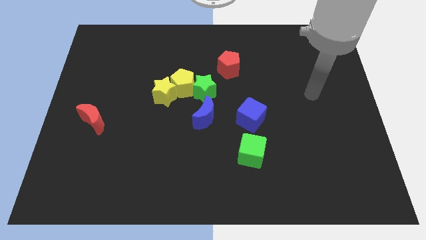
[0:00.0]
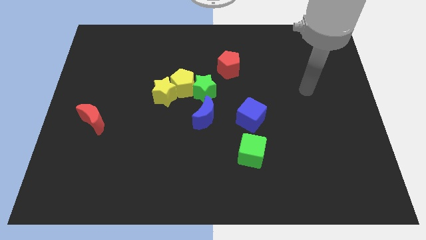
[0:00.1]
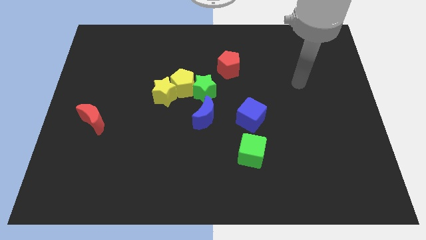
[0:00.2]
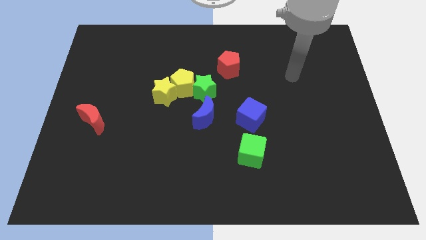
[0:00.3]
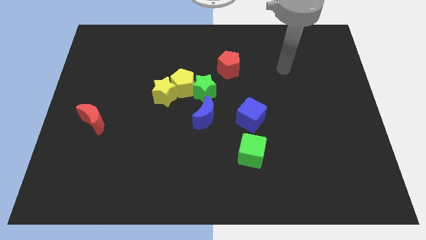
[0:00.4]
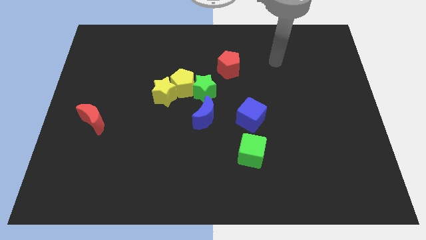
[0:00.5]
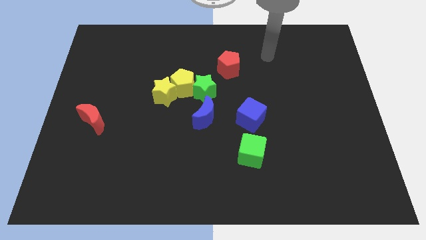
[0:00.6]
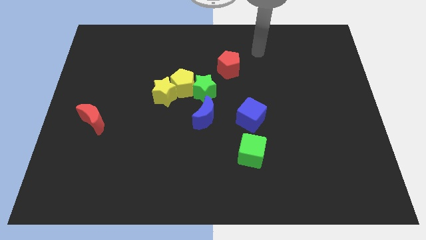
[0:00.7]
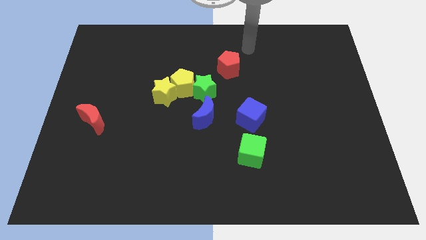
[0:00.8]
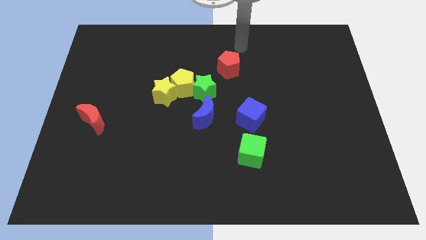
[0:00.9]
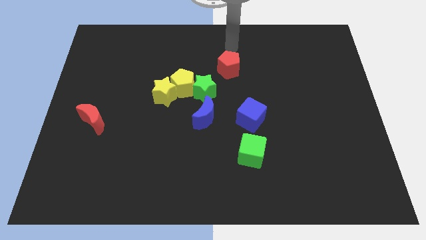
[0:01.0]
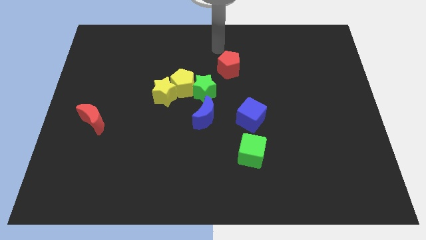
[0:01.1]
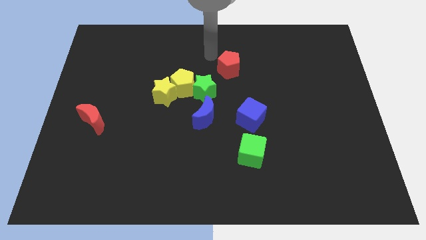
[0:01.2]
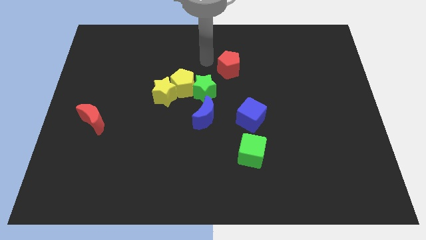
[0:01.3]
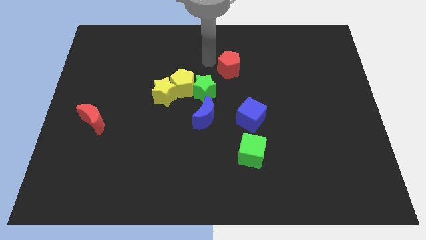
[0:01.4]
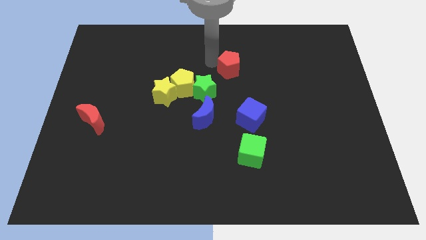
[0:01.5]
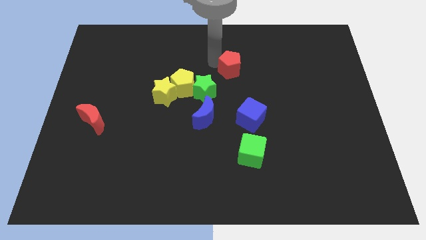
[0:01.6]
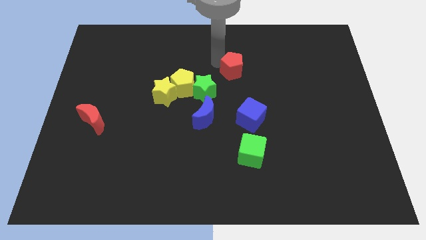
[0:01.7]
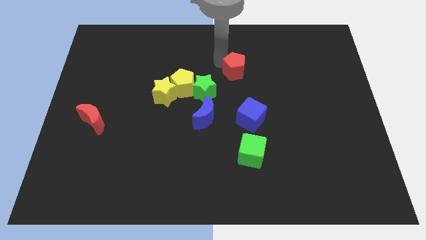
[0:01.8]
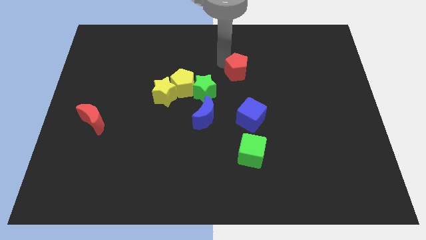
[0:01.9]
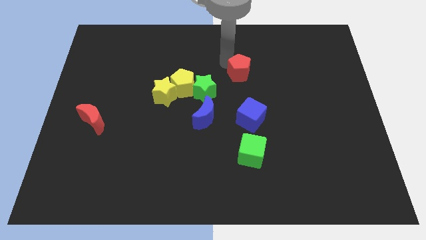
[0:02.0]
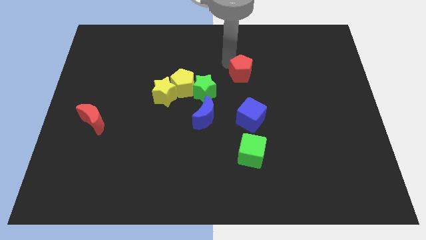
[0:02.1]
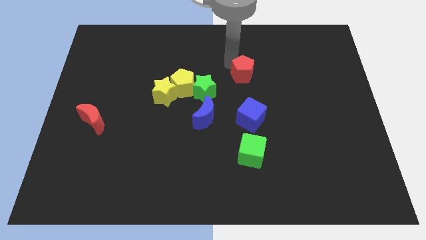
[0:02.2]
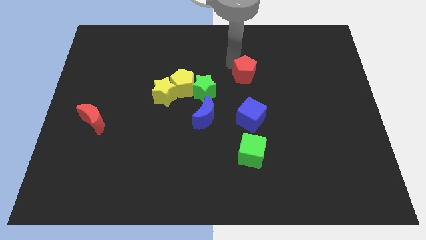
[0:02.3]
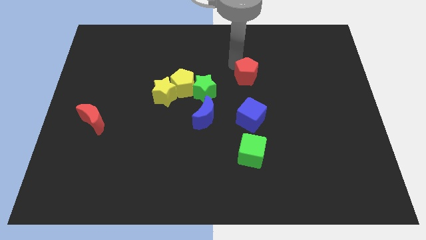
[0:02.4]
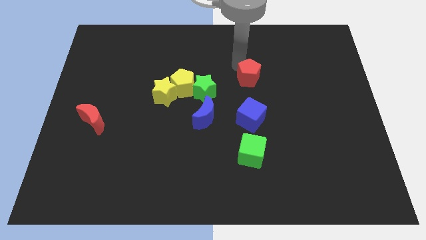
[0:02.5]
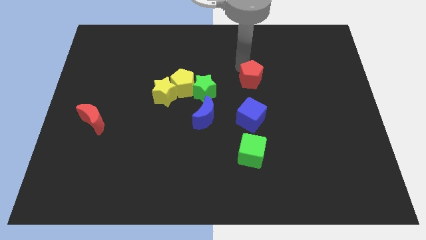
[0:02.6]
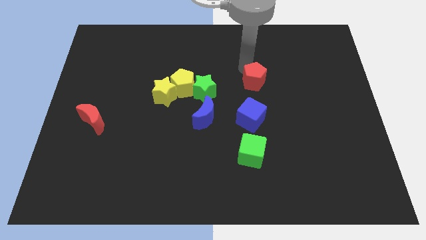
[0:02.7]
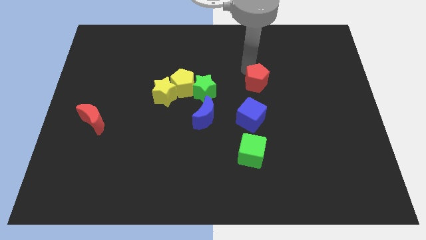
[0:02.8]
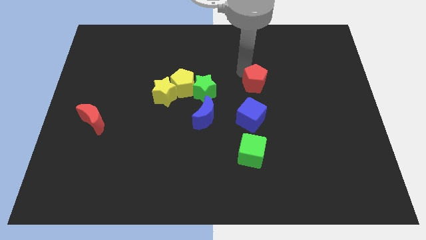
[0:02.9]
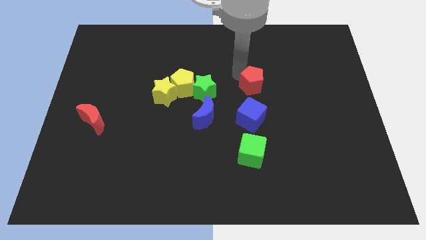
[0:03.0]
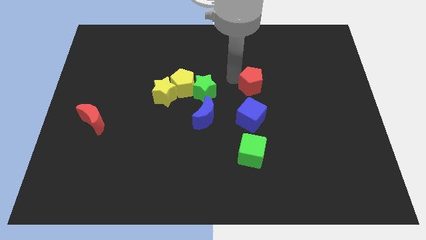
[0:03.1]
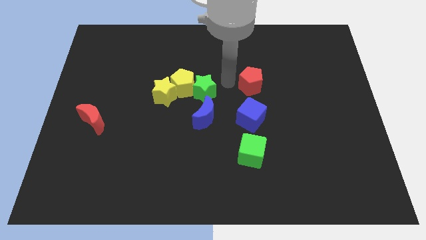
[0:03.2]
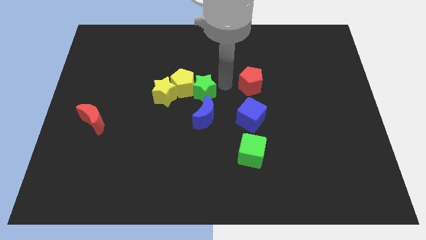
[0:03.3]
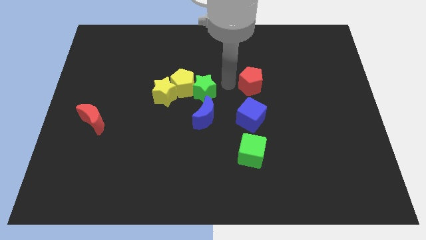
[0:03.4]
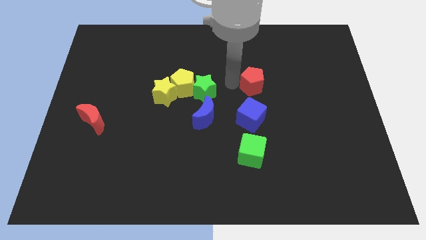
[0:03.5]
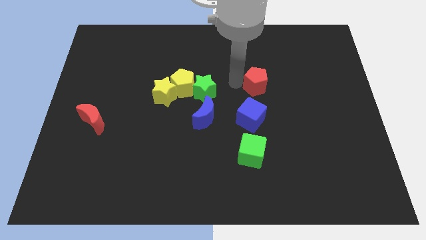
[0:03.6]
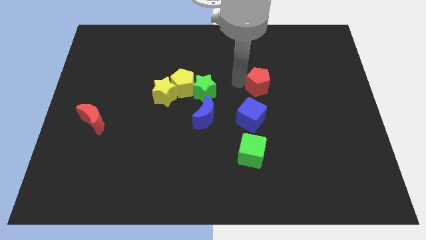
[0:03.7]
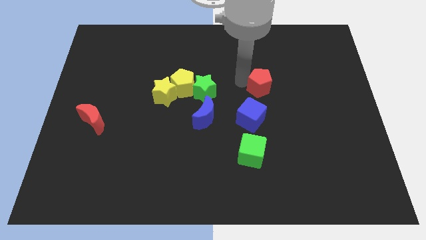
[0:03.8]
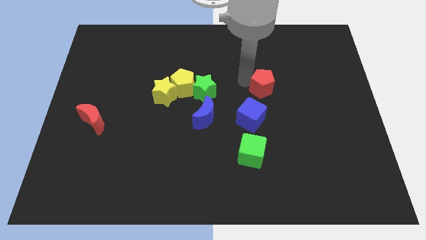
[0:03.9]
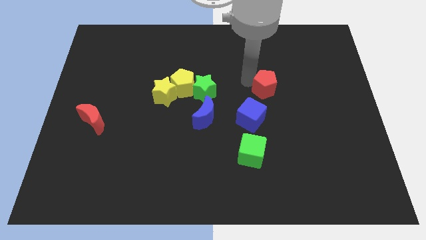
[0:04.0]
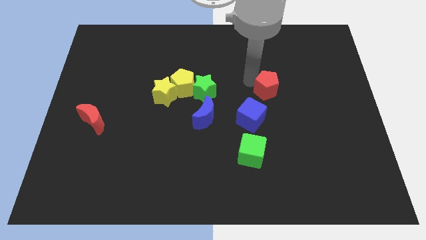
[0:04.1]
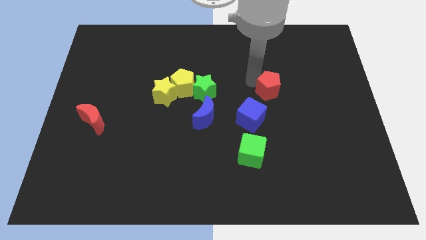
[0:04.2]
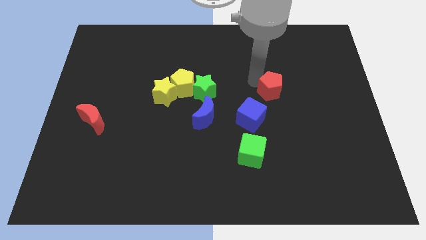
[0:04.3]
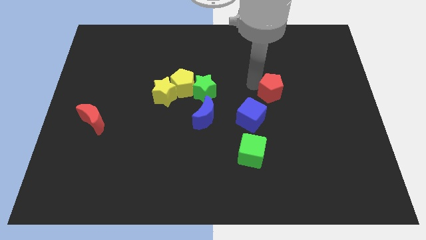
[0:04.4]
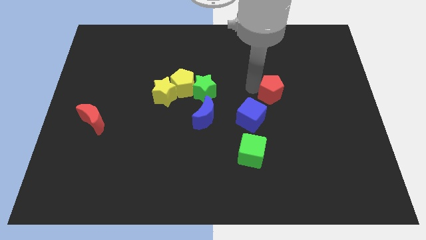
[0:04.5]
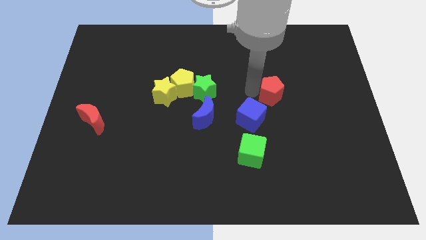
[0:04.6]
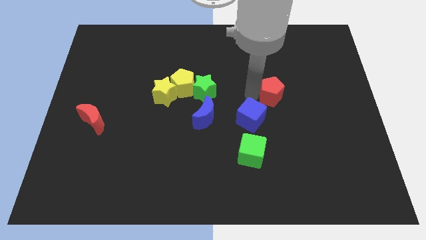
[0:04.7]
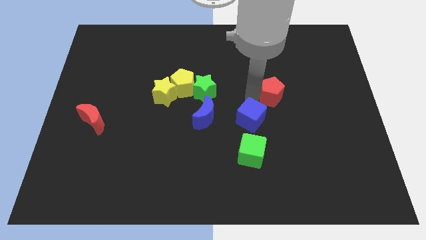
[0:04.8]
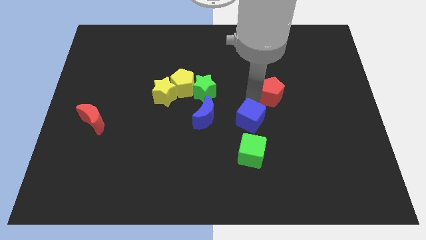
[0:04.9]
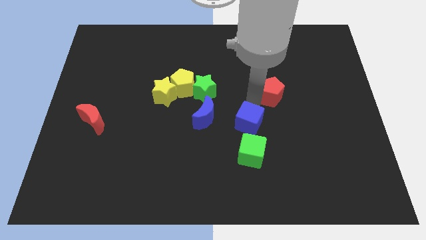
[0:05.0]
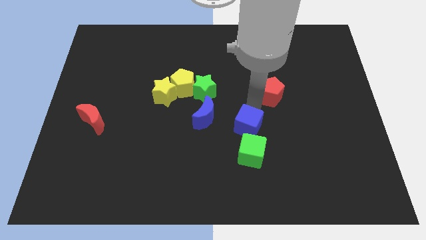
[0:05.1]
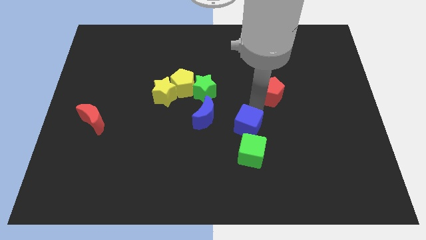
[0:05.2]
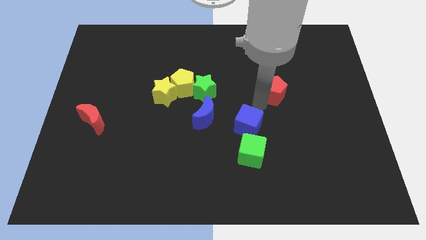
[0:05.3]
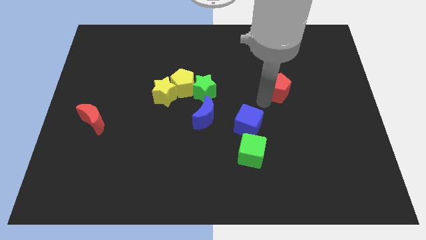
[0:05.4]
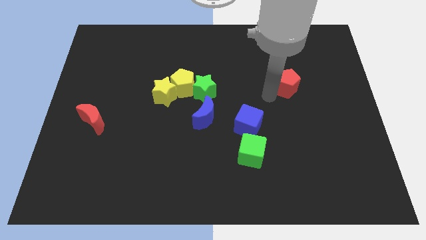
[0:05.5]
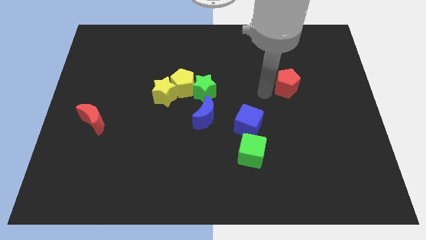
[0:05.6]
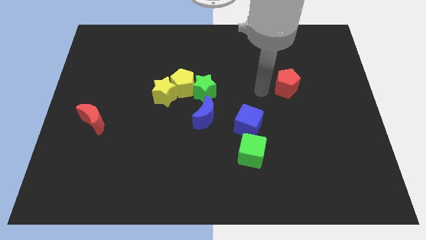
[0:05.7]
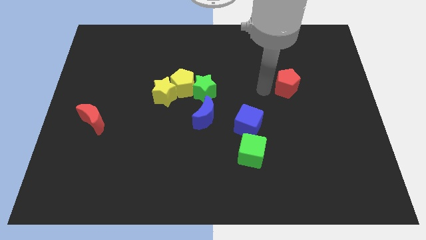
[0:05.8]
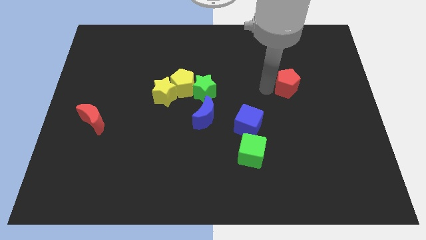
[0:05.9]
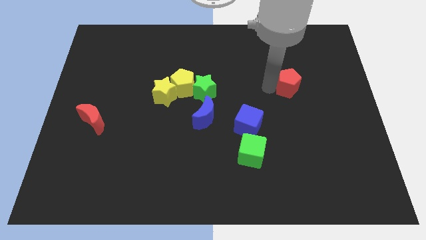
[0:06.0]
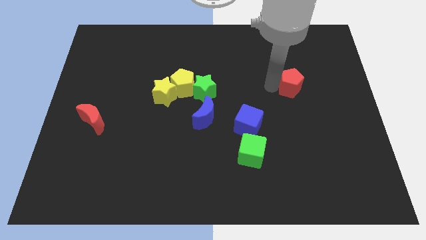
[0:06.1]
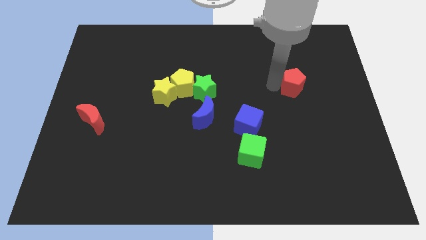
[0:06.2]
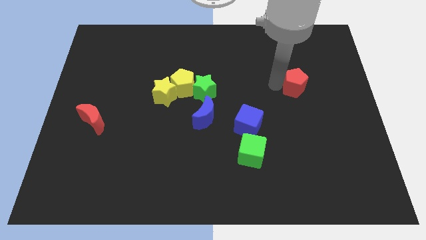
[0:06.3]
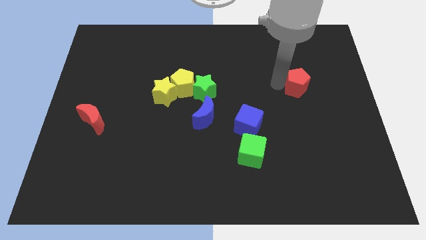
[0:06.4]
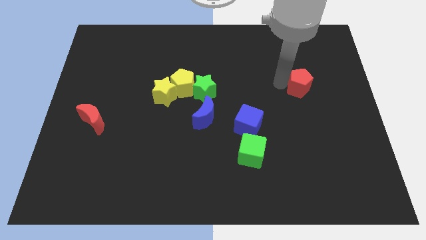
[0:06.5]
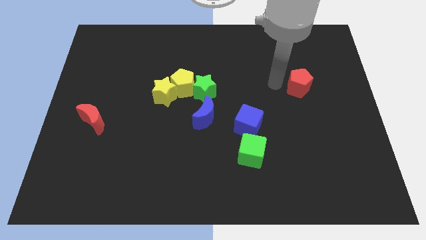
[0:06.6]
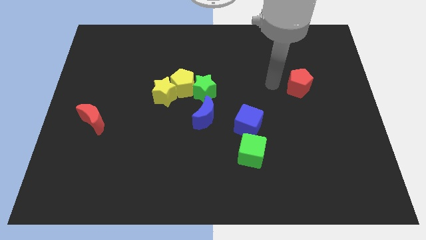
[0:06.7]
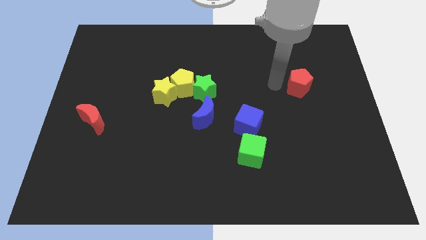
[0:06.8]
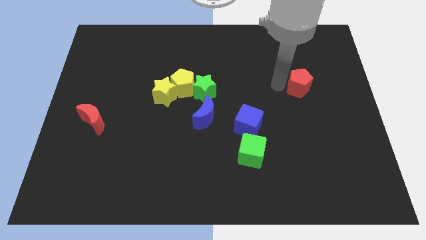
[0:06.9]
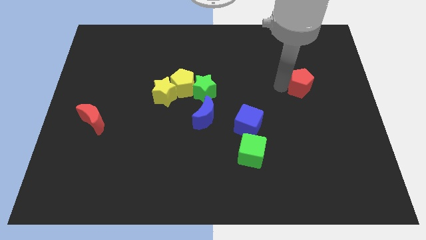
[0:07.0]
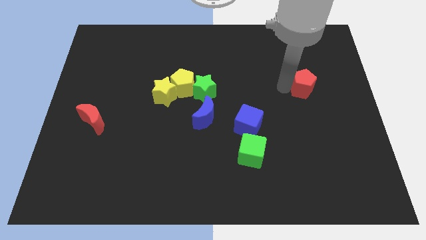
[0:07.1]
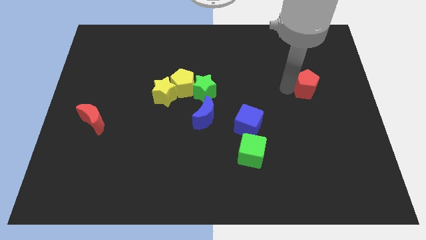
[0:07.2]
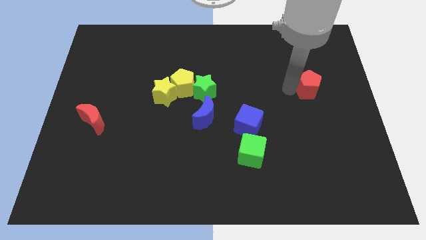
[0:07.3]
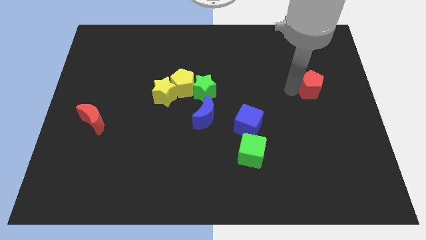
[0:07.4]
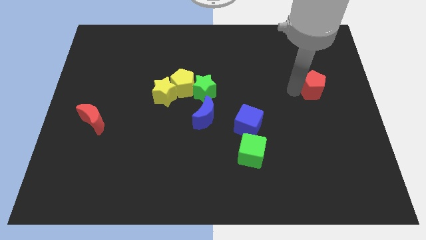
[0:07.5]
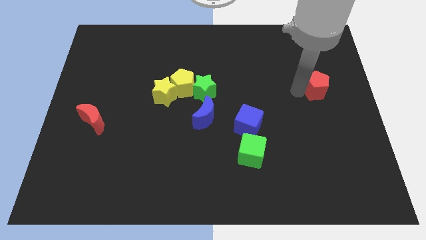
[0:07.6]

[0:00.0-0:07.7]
move the red pentagon to the right side of the board

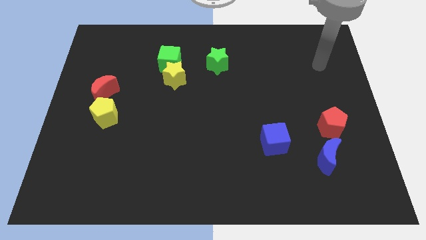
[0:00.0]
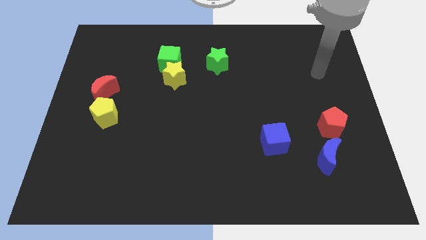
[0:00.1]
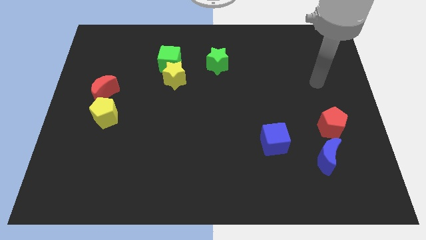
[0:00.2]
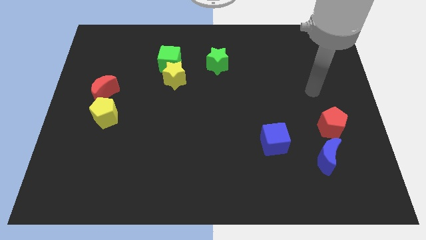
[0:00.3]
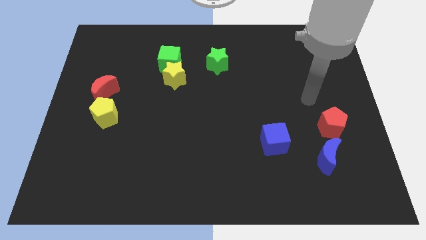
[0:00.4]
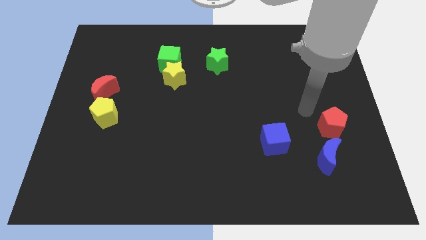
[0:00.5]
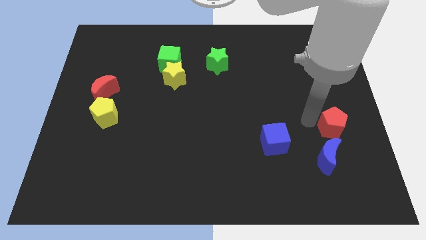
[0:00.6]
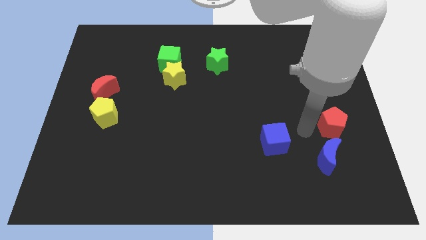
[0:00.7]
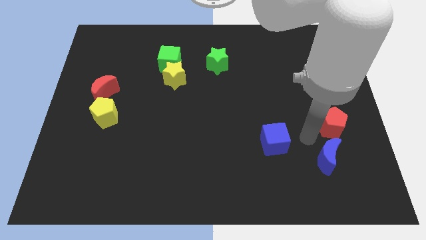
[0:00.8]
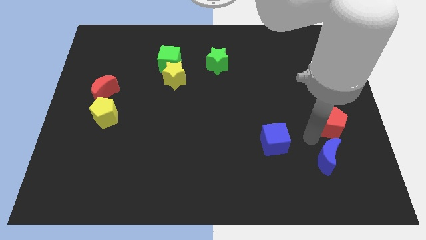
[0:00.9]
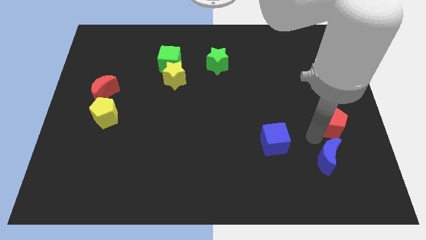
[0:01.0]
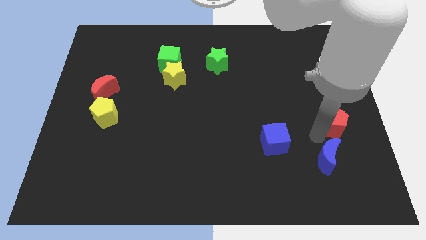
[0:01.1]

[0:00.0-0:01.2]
put the red pentagon to the right side of the board
